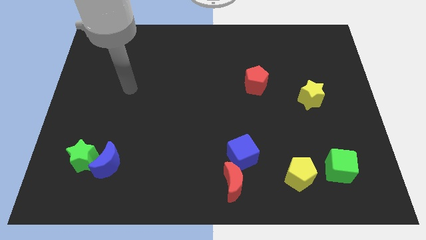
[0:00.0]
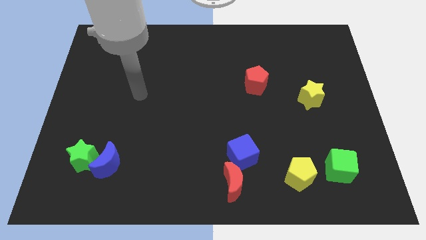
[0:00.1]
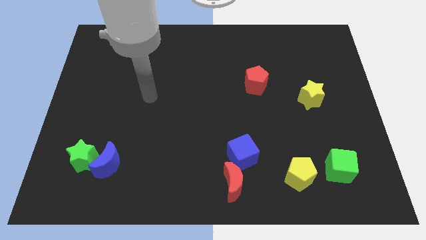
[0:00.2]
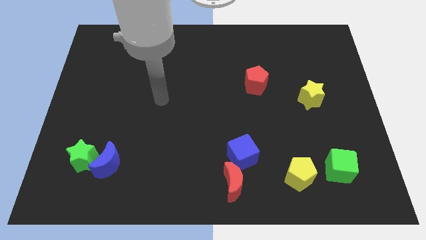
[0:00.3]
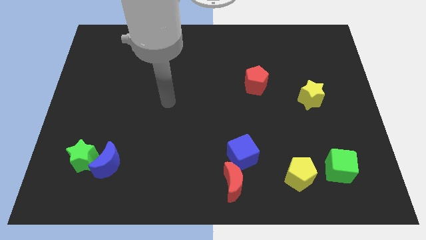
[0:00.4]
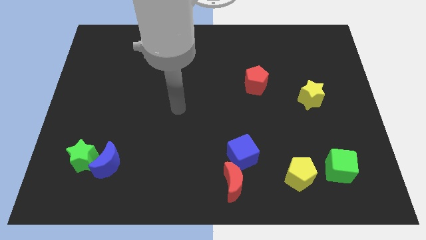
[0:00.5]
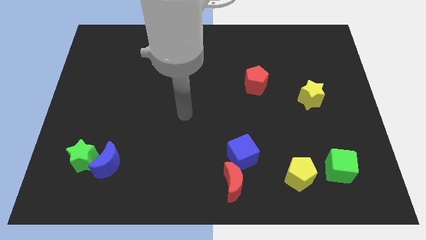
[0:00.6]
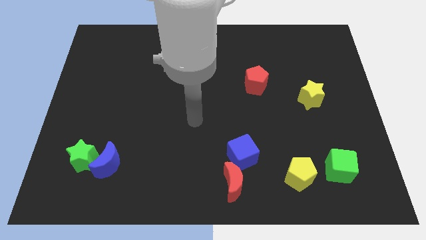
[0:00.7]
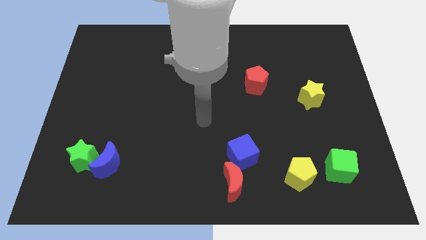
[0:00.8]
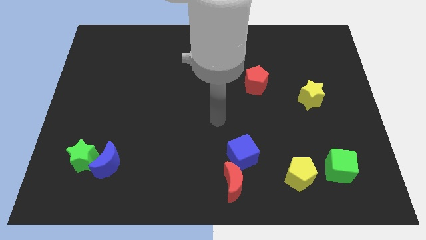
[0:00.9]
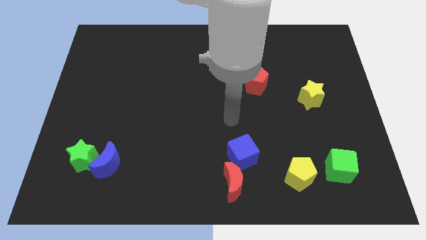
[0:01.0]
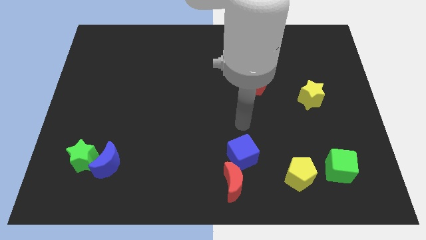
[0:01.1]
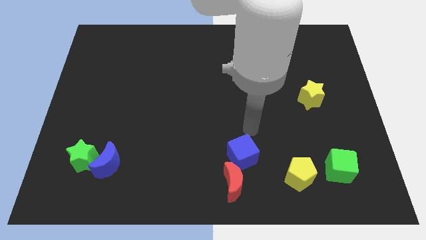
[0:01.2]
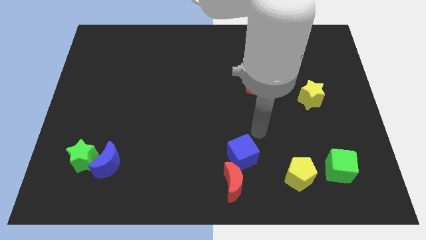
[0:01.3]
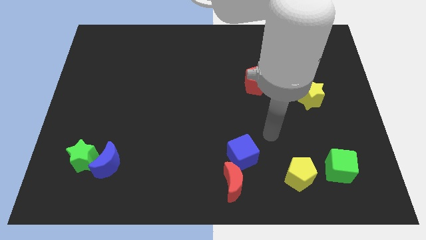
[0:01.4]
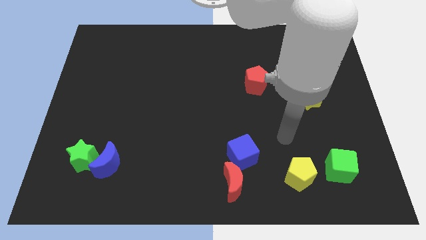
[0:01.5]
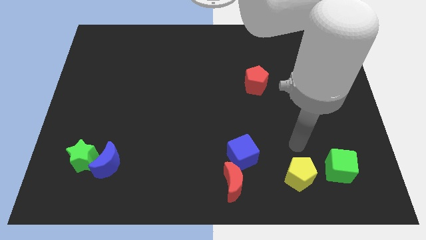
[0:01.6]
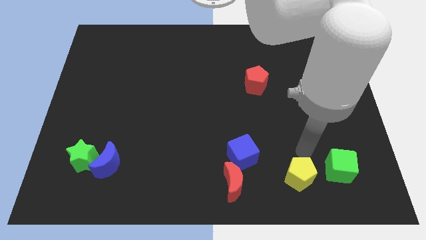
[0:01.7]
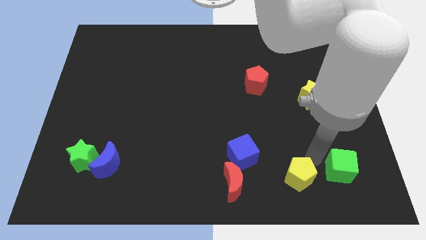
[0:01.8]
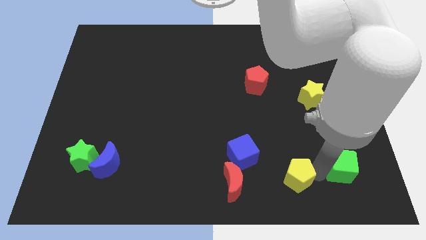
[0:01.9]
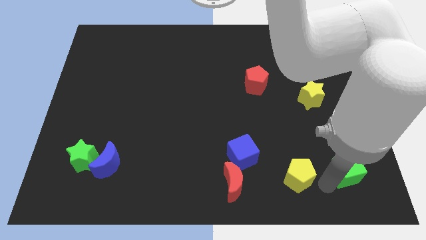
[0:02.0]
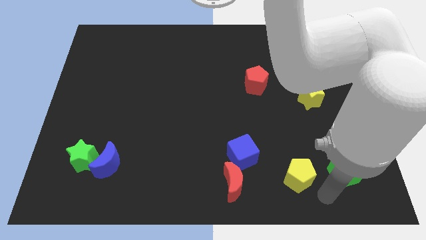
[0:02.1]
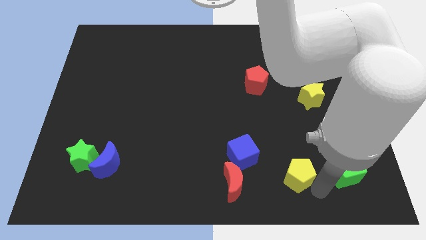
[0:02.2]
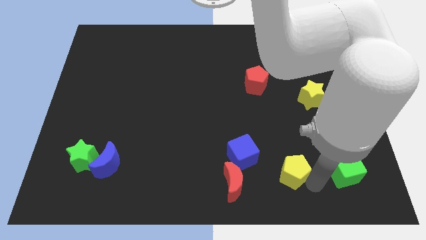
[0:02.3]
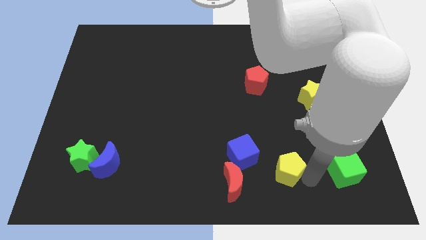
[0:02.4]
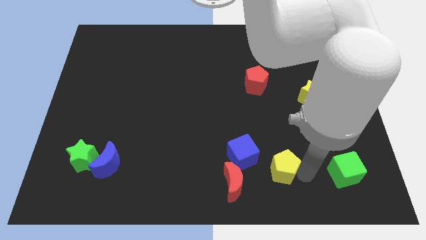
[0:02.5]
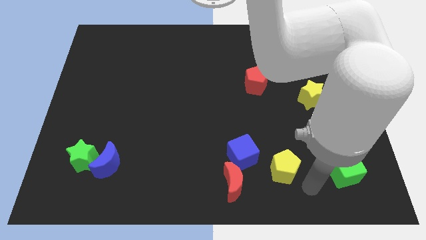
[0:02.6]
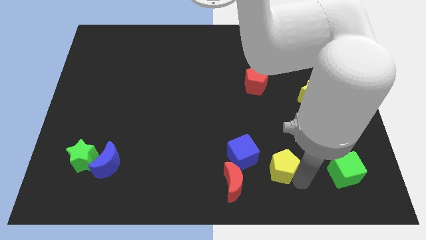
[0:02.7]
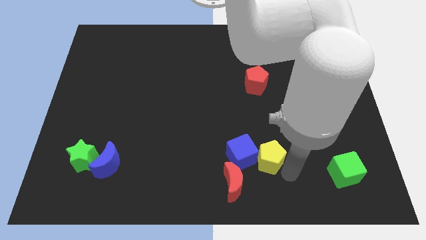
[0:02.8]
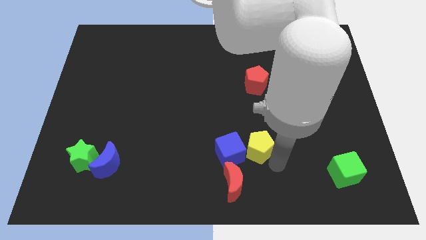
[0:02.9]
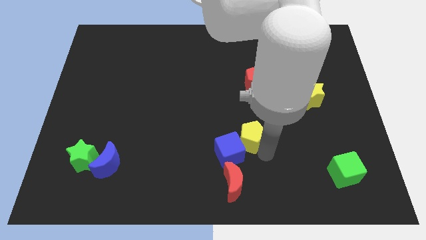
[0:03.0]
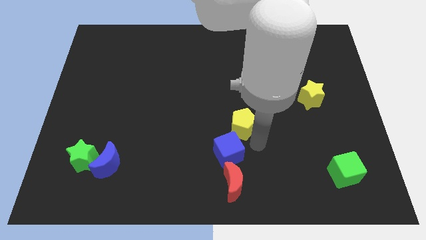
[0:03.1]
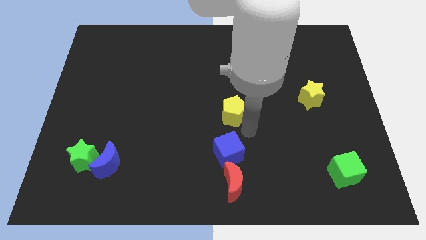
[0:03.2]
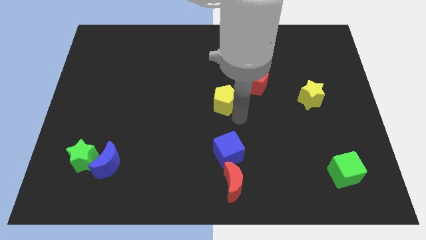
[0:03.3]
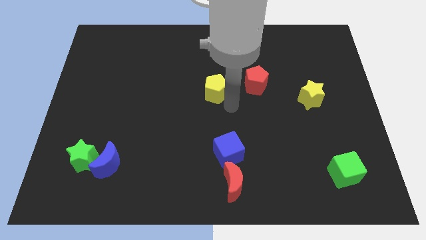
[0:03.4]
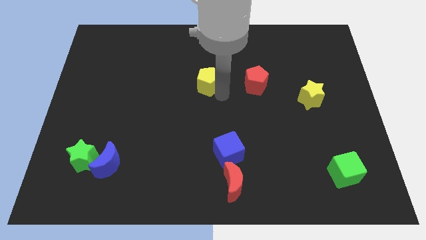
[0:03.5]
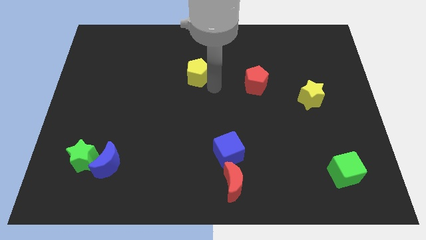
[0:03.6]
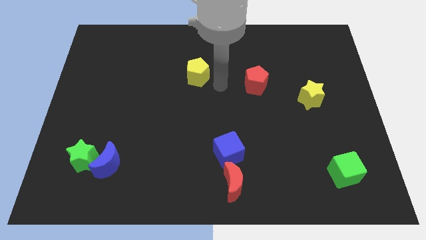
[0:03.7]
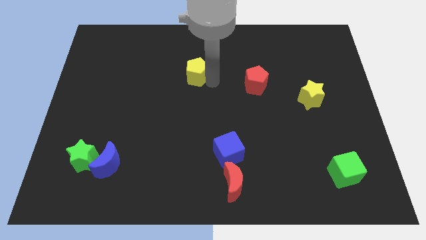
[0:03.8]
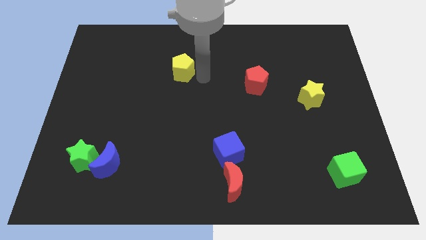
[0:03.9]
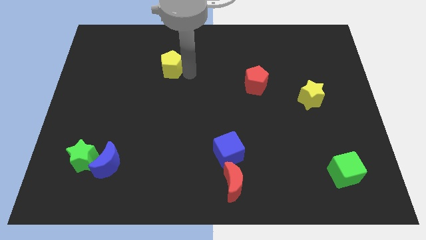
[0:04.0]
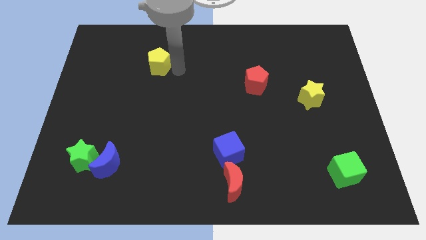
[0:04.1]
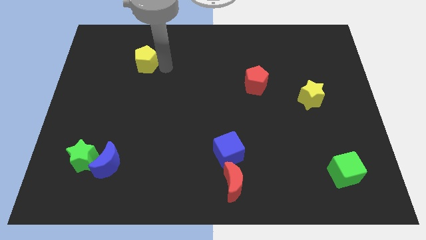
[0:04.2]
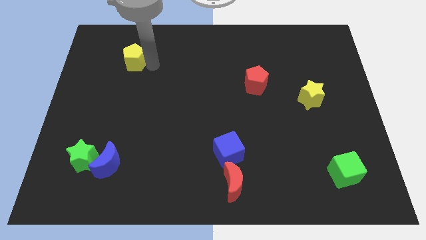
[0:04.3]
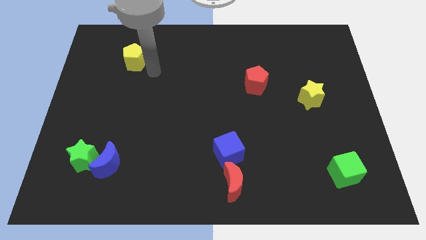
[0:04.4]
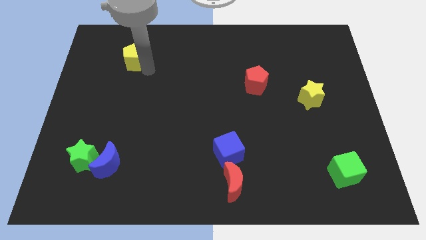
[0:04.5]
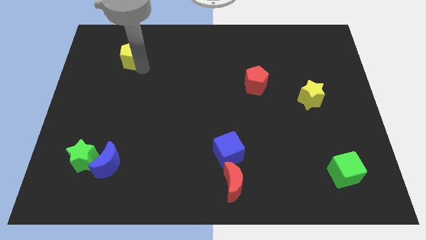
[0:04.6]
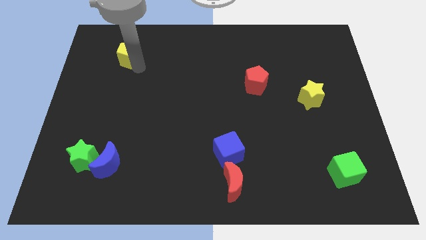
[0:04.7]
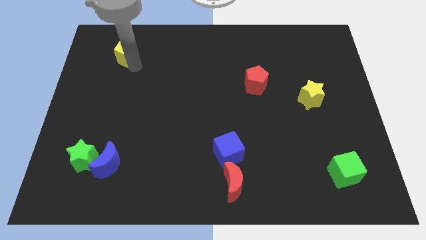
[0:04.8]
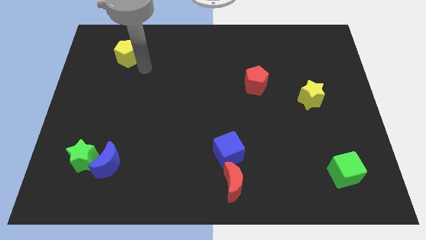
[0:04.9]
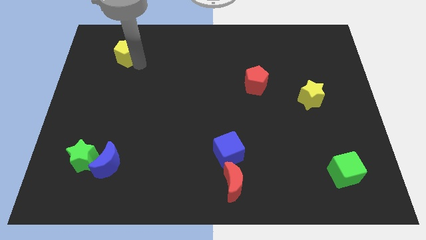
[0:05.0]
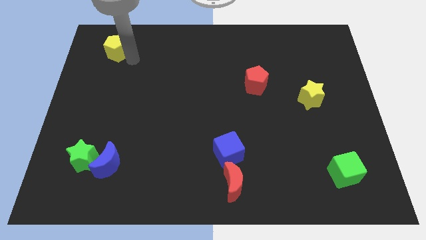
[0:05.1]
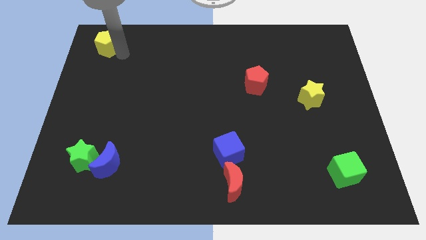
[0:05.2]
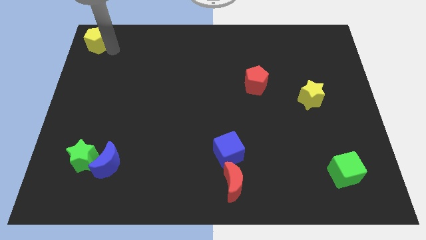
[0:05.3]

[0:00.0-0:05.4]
slide the yellow pentagon to the upper left corner

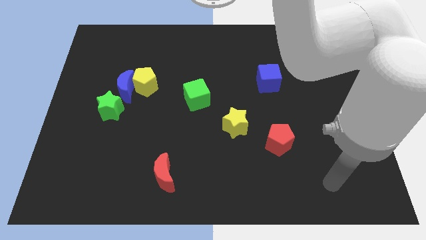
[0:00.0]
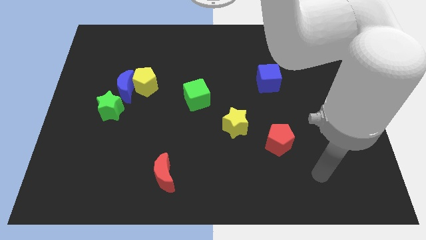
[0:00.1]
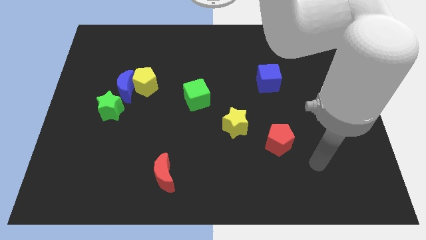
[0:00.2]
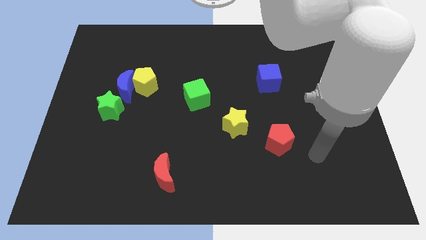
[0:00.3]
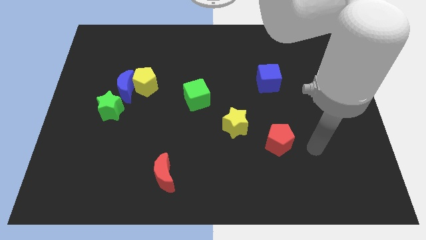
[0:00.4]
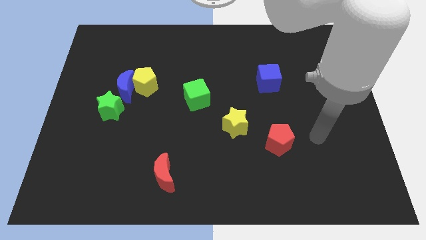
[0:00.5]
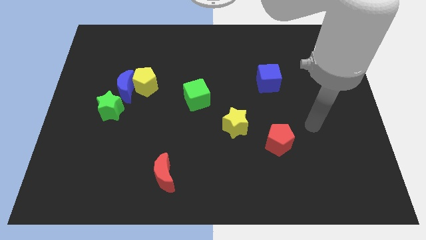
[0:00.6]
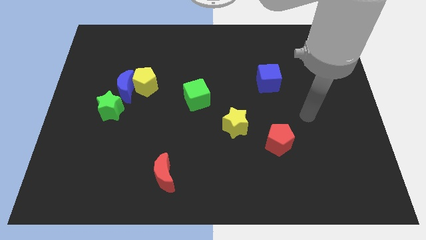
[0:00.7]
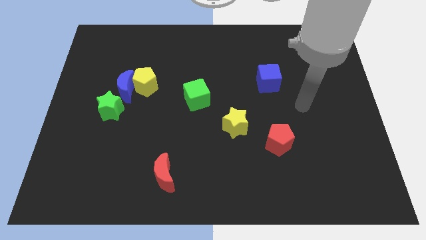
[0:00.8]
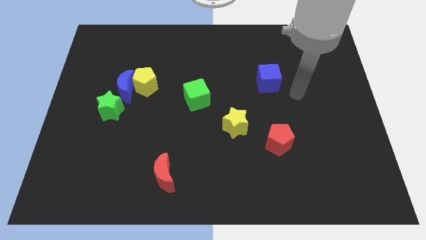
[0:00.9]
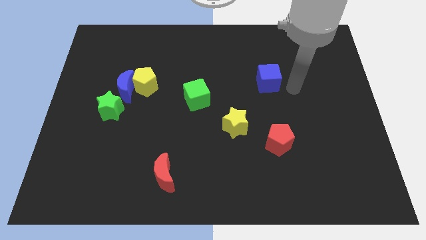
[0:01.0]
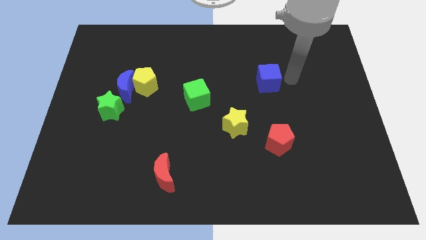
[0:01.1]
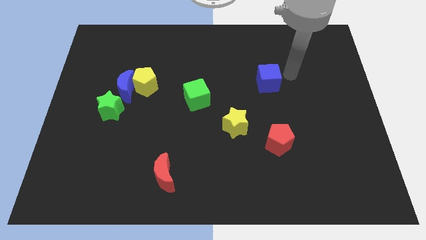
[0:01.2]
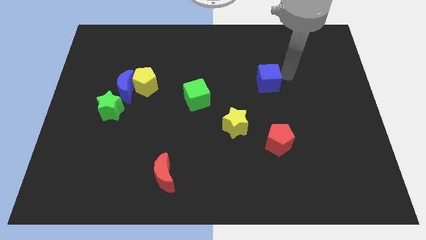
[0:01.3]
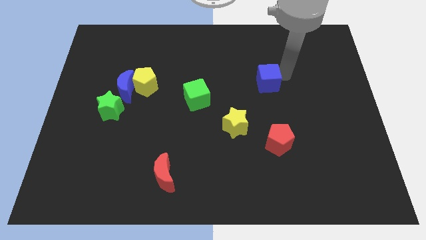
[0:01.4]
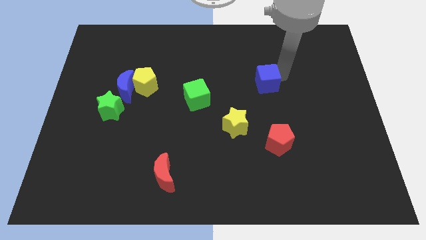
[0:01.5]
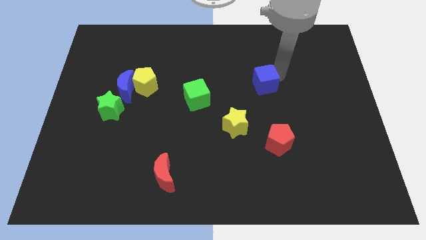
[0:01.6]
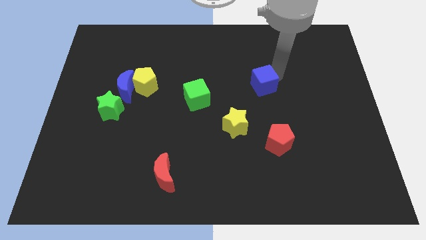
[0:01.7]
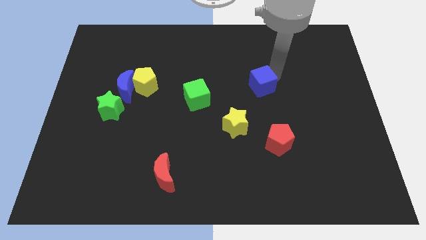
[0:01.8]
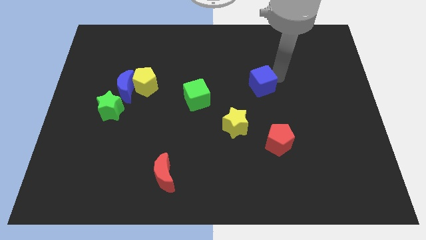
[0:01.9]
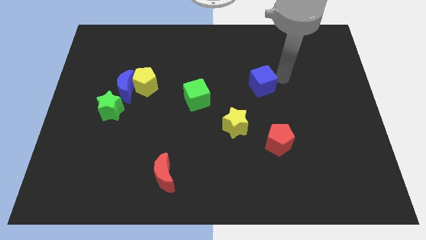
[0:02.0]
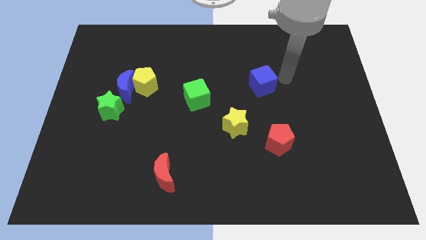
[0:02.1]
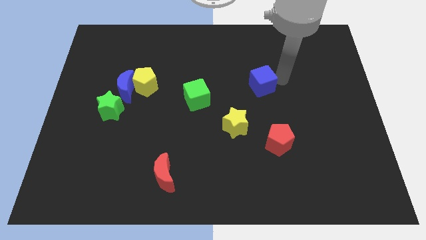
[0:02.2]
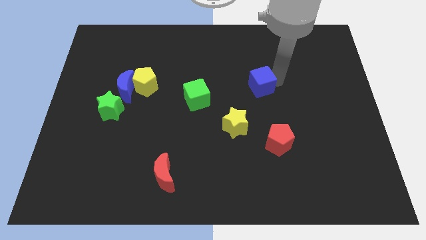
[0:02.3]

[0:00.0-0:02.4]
put the blue cube to the center

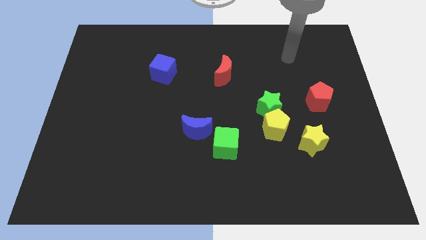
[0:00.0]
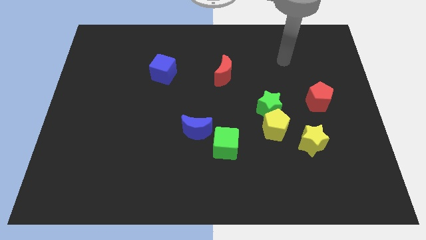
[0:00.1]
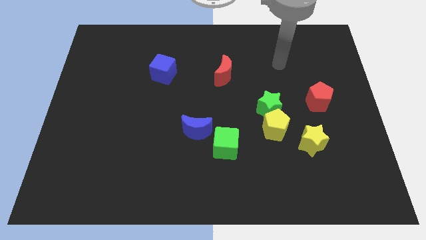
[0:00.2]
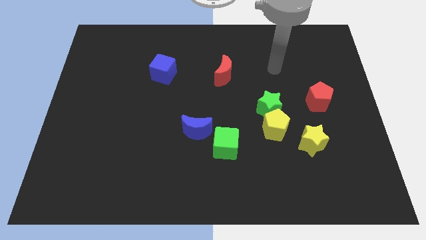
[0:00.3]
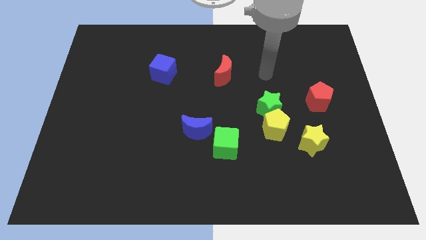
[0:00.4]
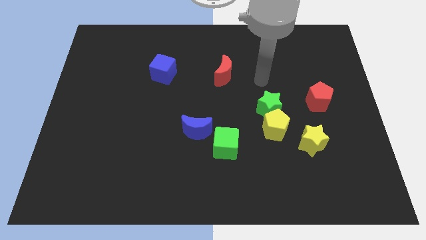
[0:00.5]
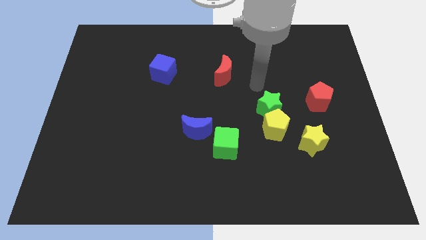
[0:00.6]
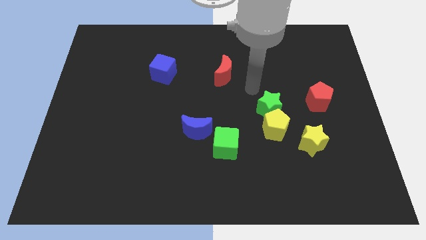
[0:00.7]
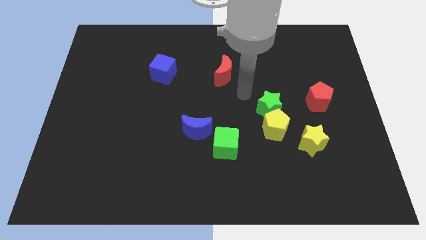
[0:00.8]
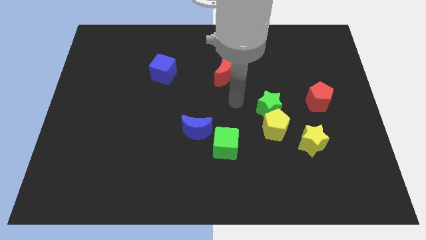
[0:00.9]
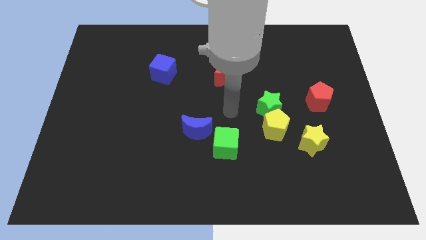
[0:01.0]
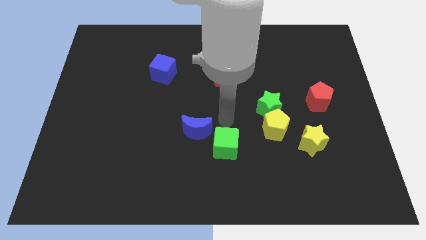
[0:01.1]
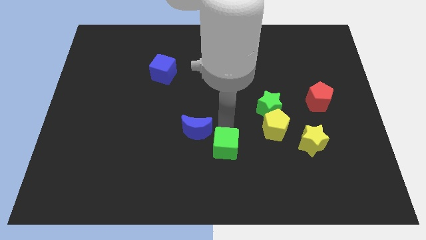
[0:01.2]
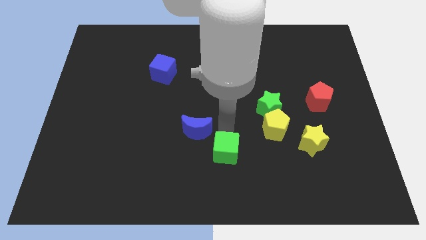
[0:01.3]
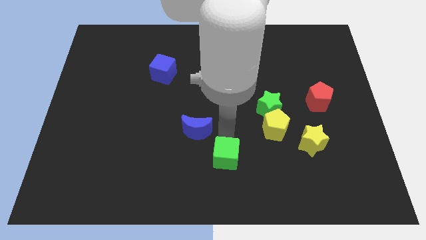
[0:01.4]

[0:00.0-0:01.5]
push the green cube to the bottom side
